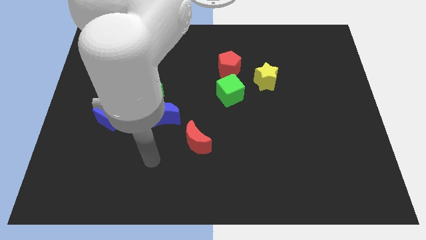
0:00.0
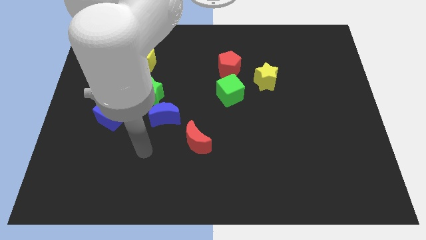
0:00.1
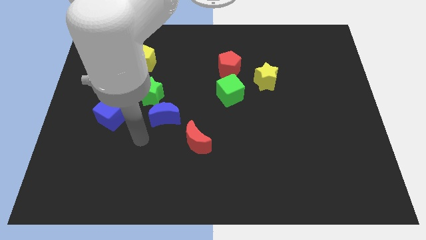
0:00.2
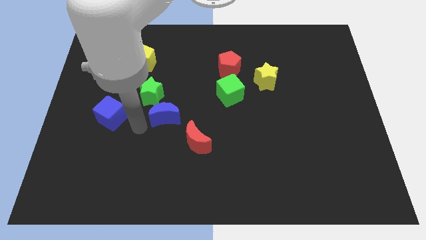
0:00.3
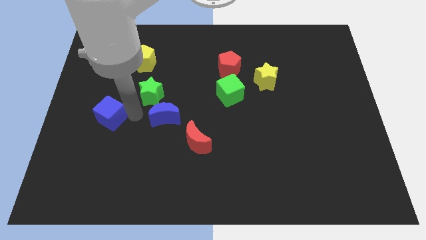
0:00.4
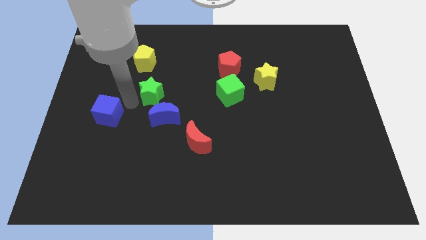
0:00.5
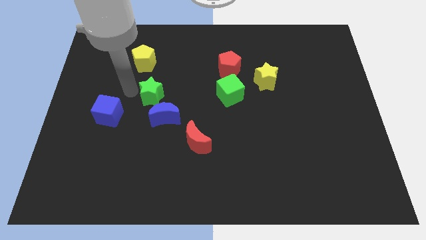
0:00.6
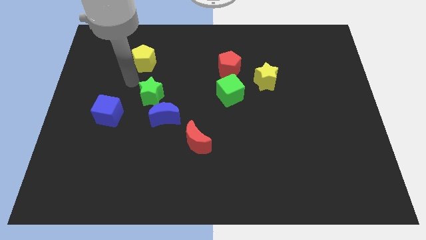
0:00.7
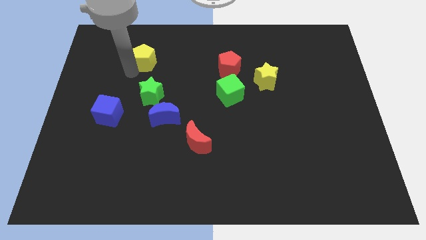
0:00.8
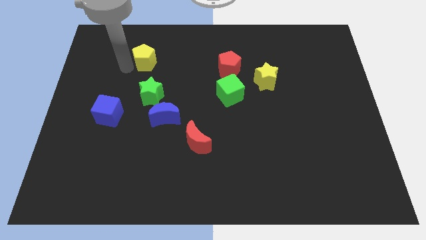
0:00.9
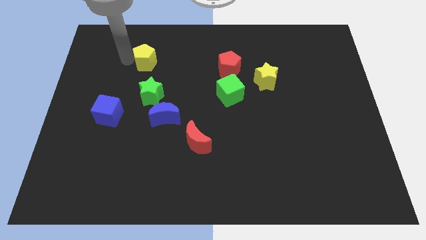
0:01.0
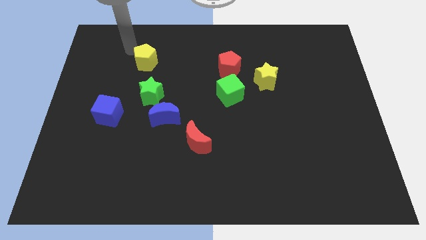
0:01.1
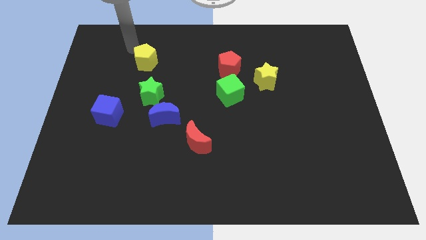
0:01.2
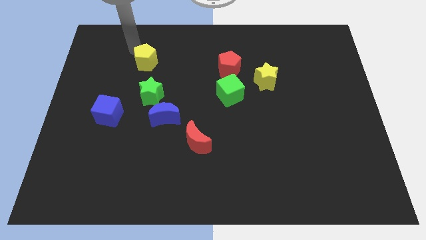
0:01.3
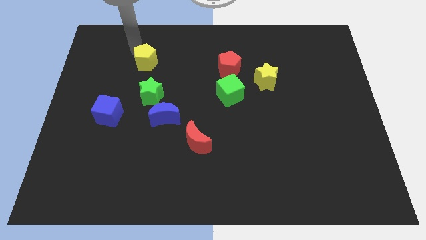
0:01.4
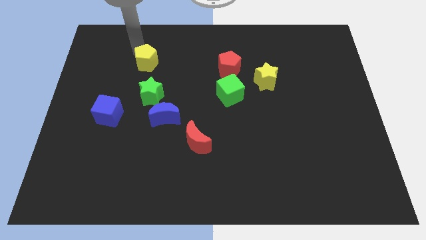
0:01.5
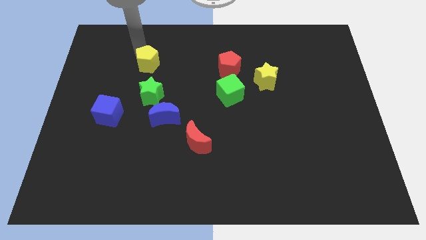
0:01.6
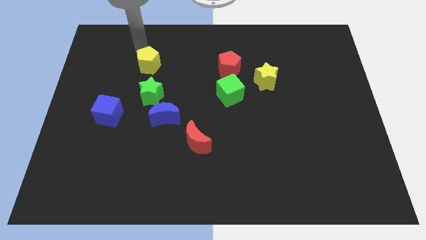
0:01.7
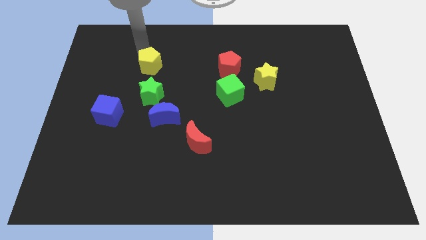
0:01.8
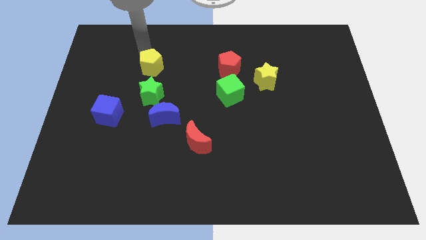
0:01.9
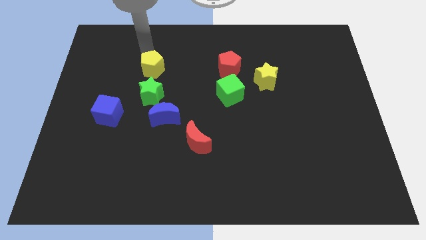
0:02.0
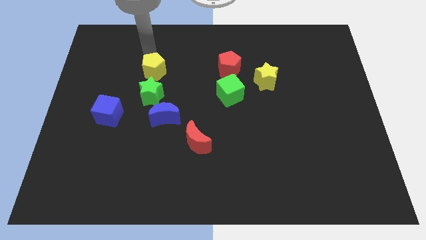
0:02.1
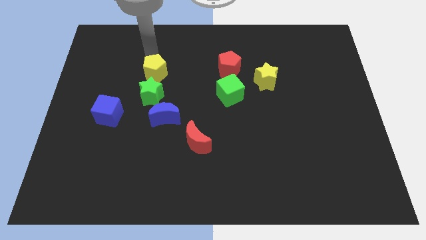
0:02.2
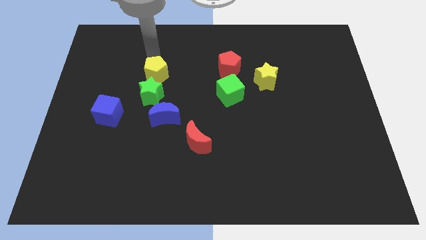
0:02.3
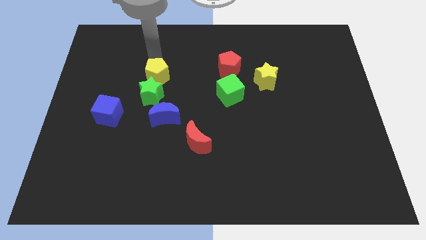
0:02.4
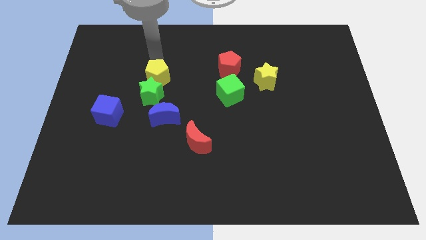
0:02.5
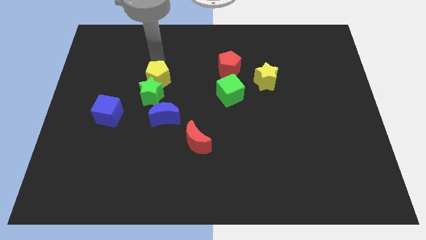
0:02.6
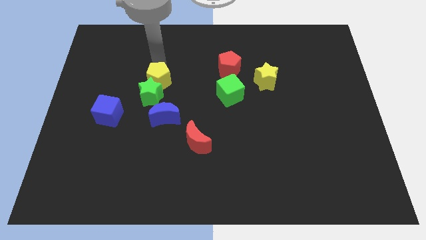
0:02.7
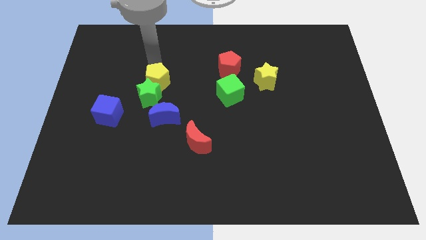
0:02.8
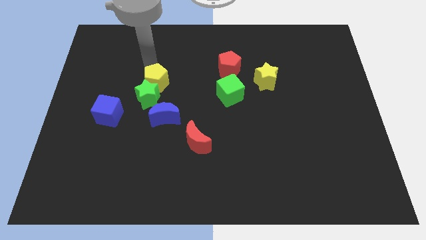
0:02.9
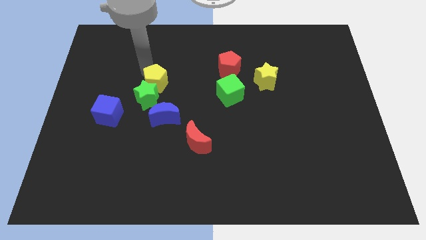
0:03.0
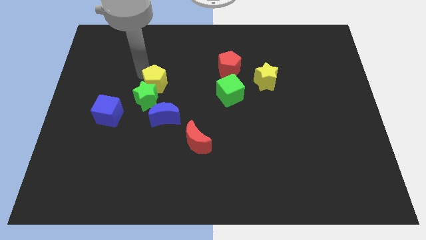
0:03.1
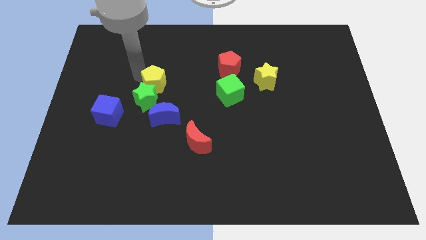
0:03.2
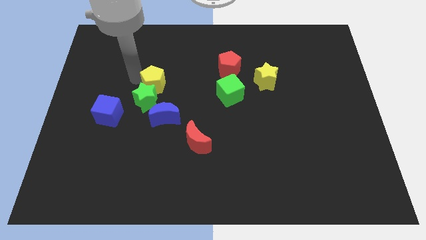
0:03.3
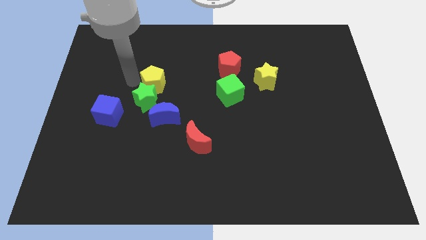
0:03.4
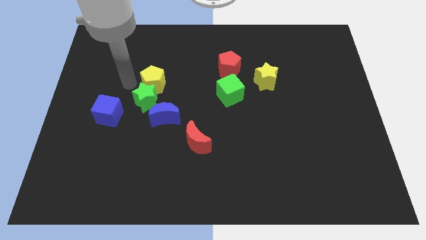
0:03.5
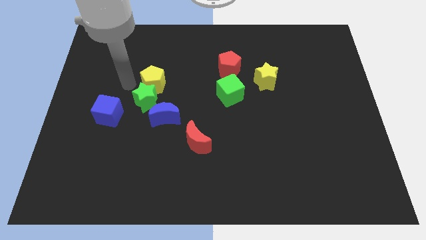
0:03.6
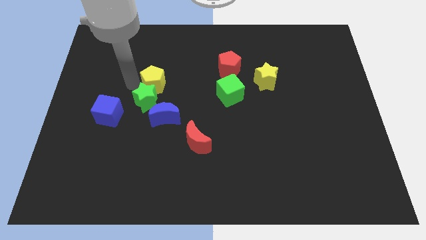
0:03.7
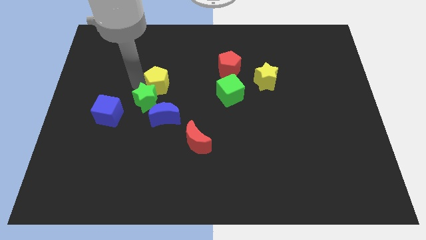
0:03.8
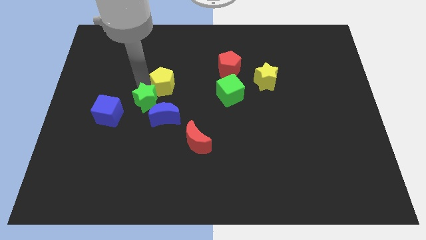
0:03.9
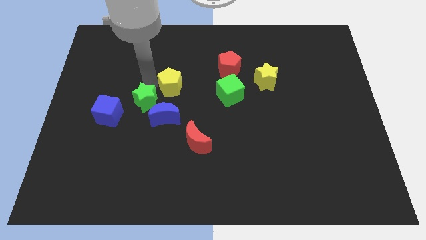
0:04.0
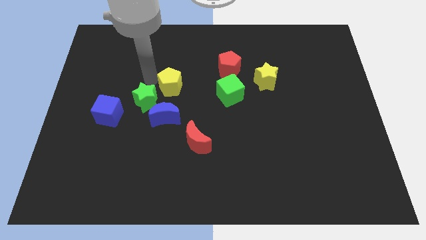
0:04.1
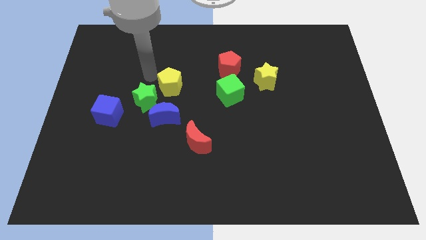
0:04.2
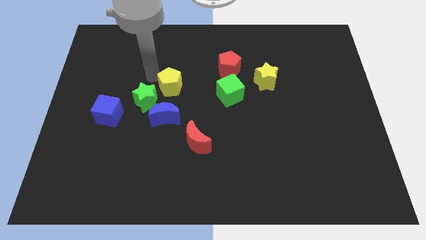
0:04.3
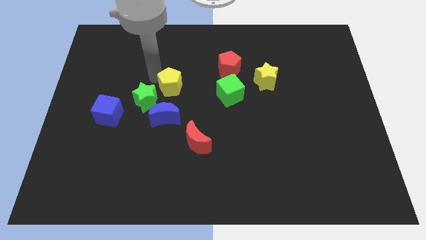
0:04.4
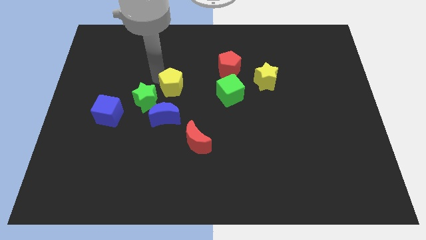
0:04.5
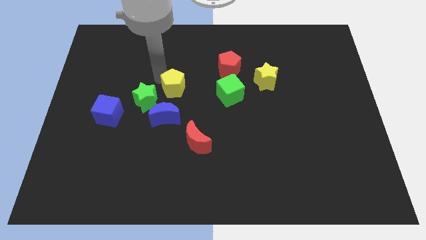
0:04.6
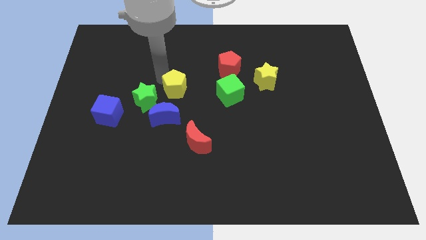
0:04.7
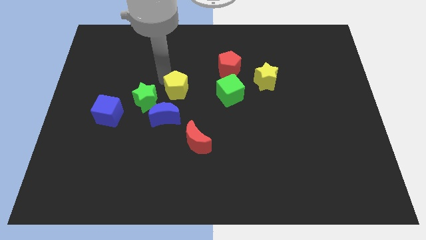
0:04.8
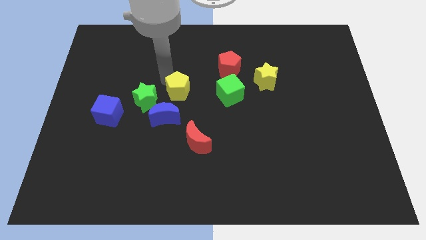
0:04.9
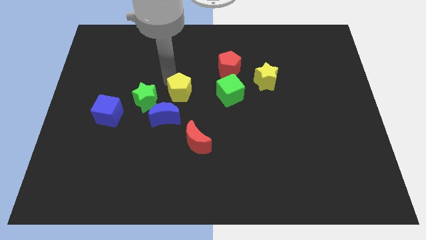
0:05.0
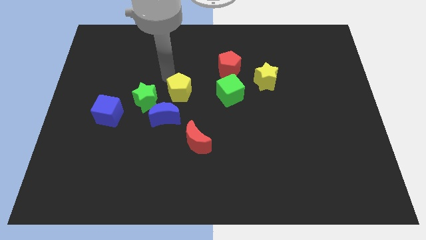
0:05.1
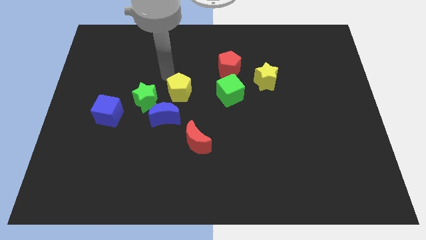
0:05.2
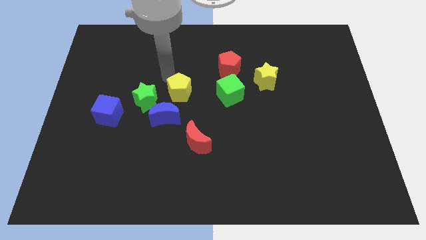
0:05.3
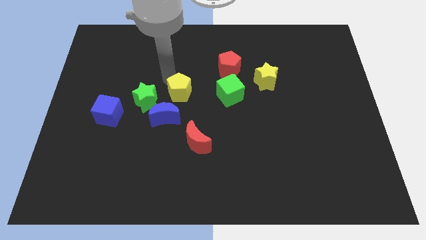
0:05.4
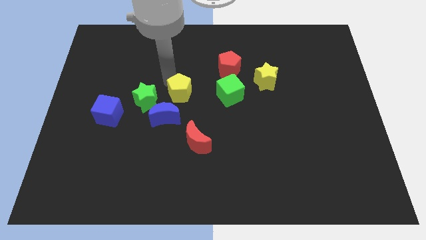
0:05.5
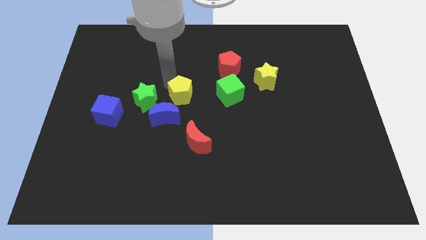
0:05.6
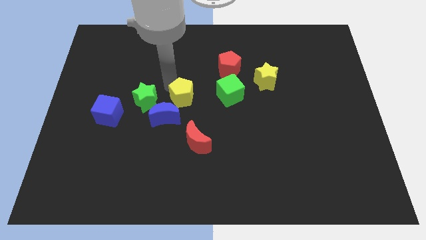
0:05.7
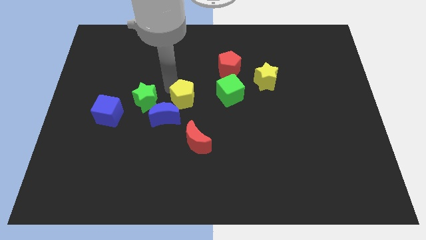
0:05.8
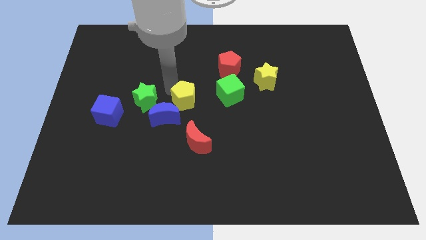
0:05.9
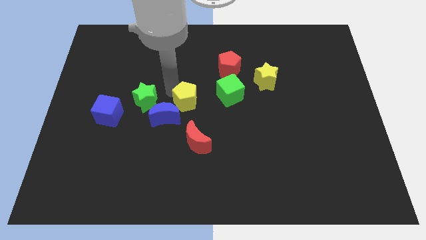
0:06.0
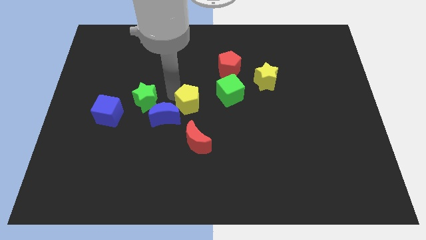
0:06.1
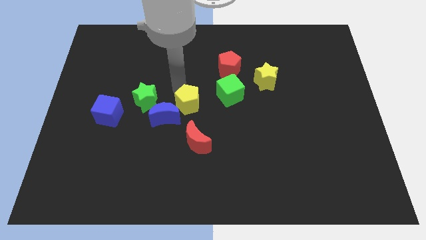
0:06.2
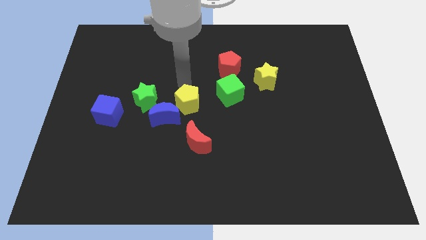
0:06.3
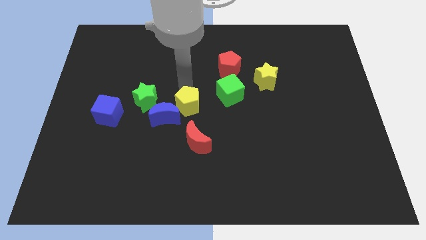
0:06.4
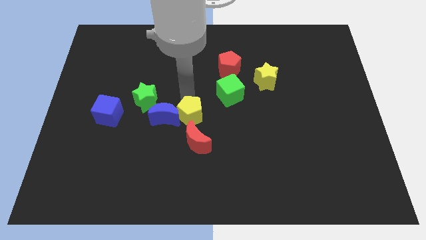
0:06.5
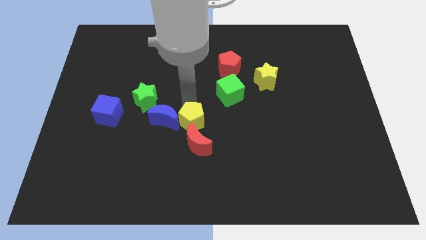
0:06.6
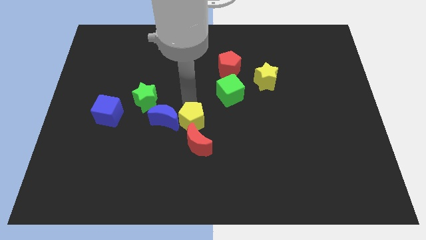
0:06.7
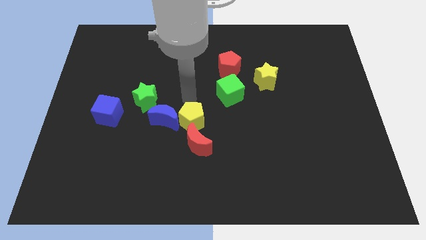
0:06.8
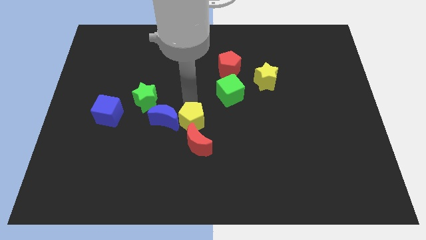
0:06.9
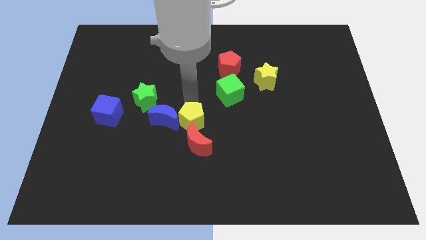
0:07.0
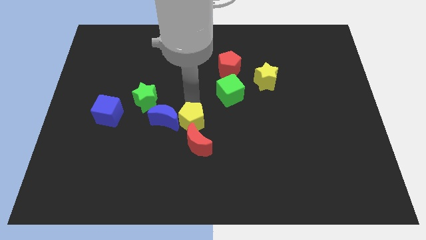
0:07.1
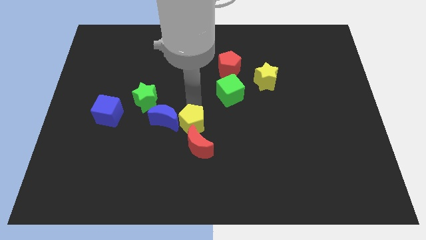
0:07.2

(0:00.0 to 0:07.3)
slide the yellow pentagon close to the red moon

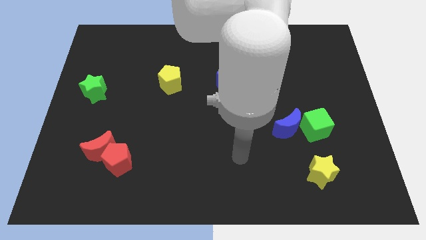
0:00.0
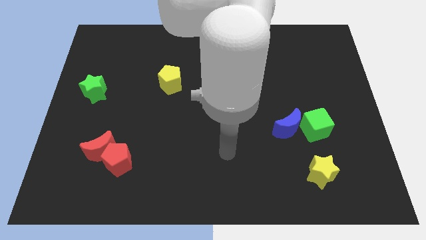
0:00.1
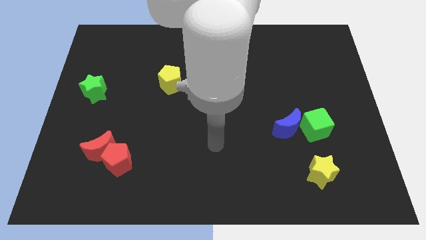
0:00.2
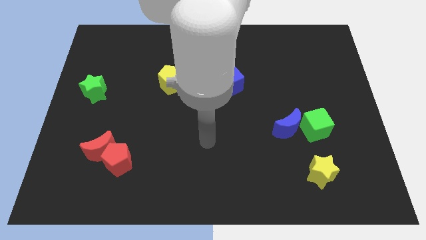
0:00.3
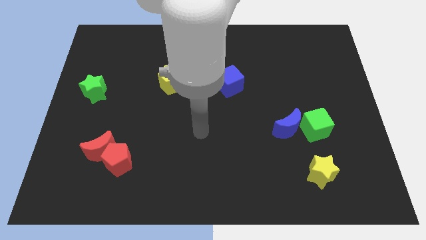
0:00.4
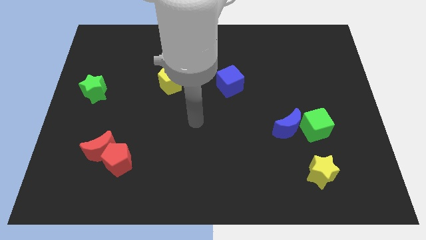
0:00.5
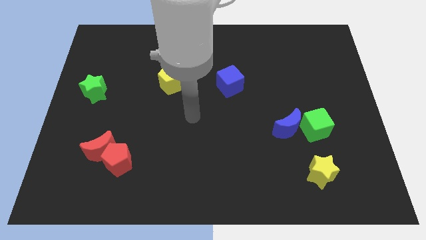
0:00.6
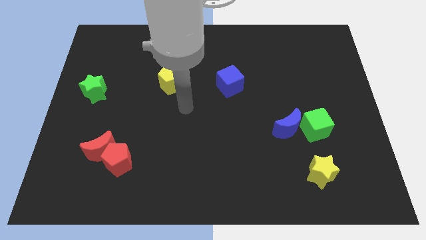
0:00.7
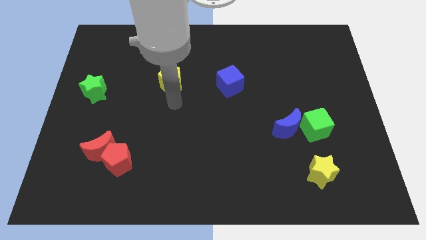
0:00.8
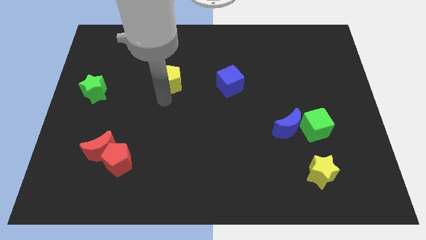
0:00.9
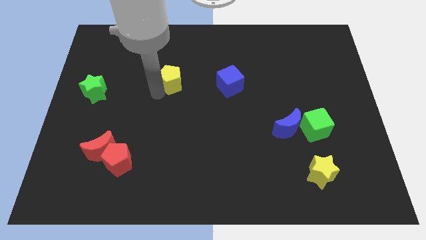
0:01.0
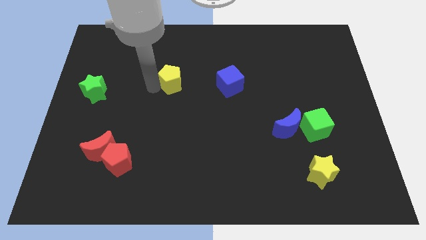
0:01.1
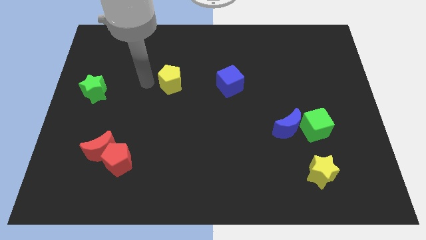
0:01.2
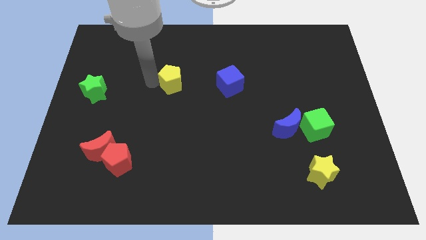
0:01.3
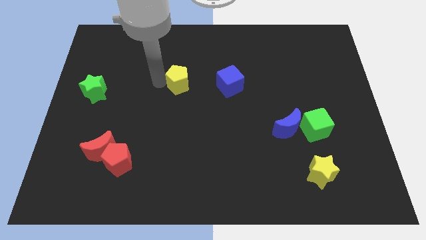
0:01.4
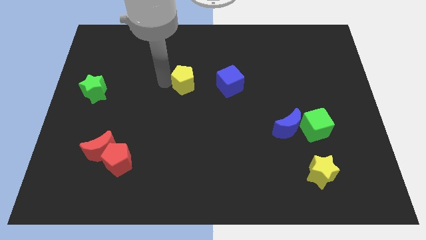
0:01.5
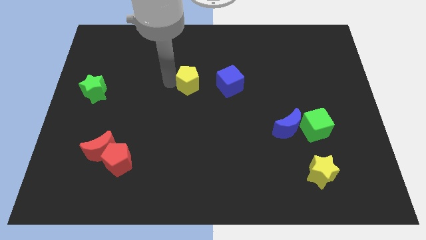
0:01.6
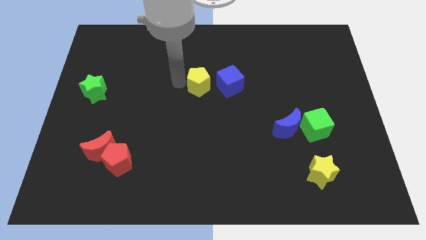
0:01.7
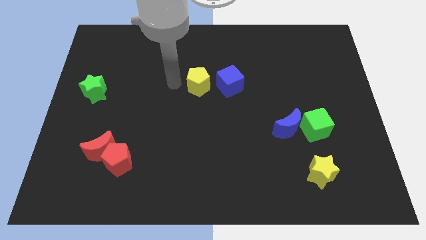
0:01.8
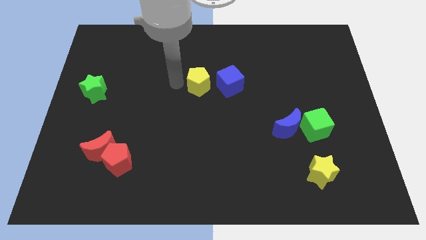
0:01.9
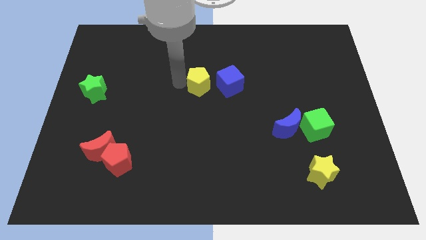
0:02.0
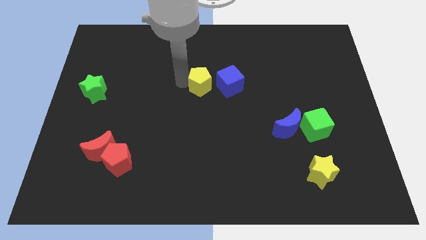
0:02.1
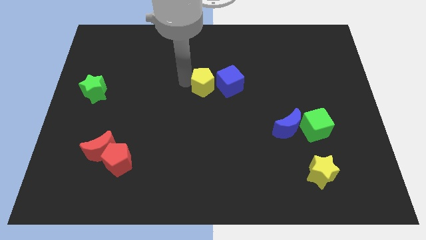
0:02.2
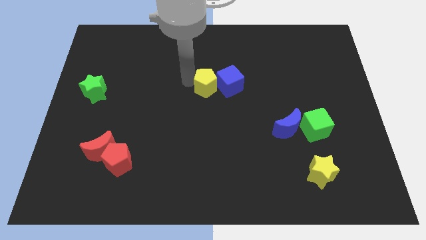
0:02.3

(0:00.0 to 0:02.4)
slide the yellow pentagon close to the blue cube
